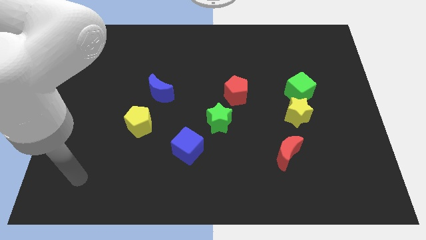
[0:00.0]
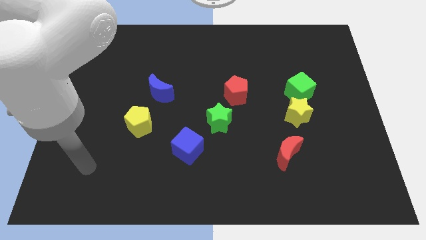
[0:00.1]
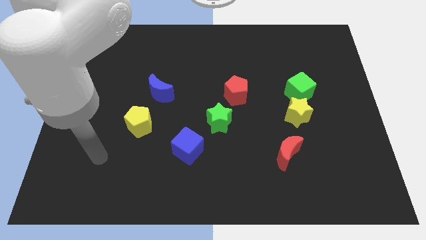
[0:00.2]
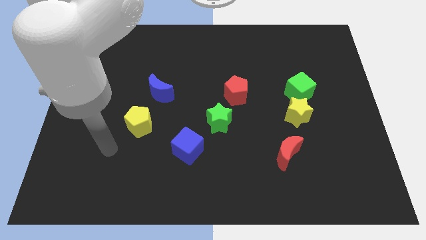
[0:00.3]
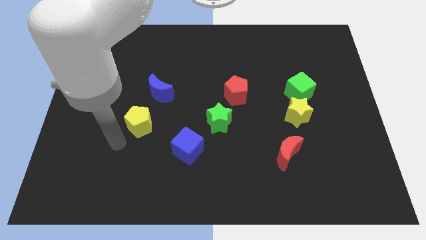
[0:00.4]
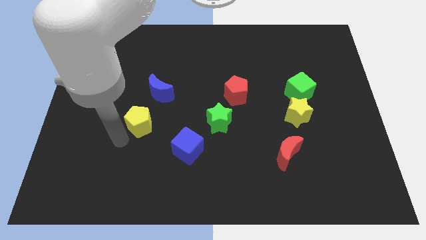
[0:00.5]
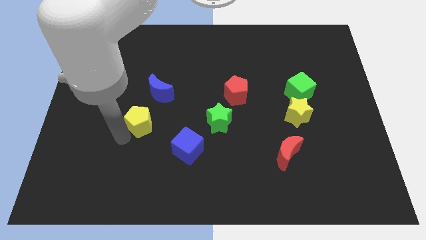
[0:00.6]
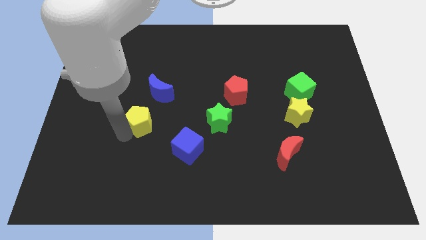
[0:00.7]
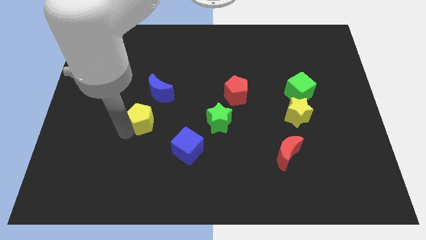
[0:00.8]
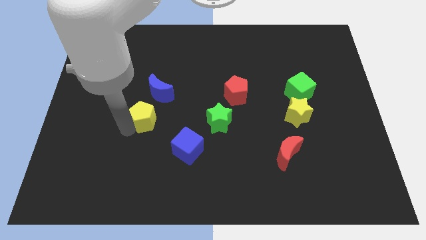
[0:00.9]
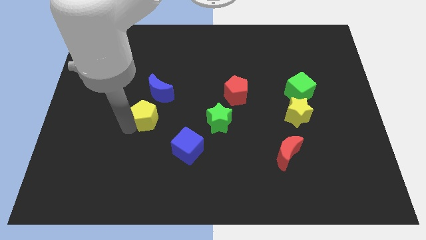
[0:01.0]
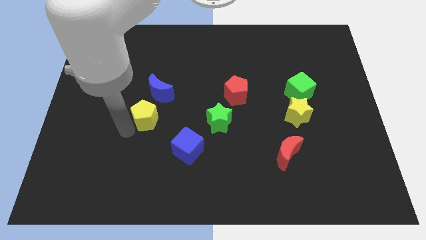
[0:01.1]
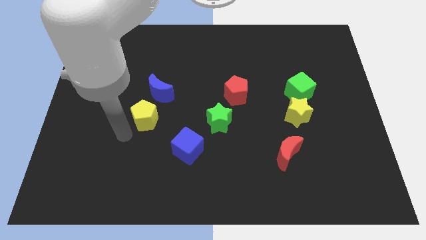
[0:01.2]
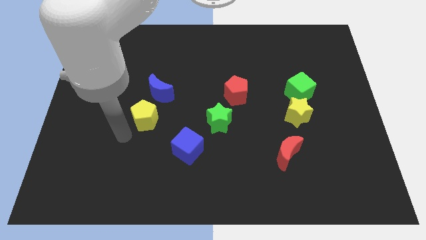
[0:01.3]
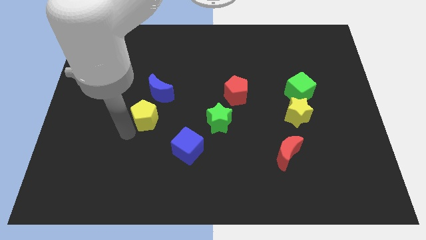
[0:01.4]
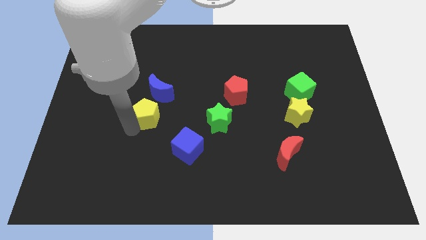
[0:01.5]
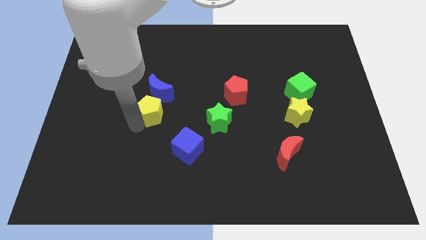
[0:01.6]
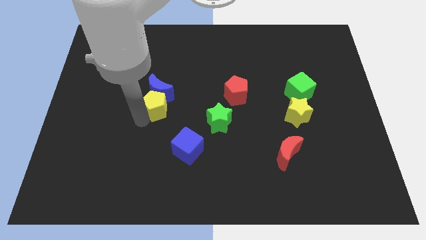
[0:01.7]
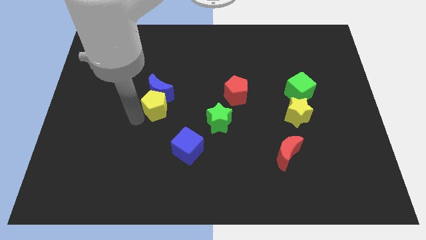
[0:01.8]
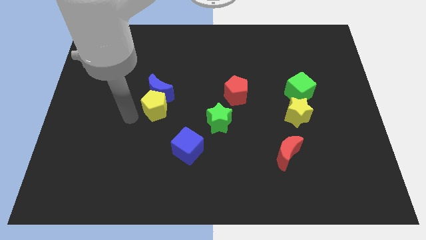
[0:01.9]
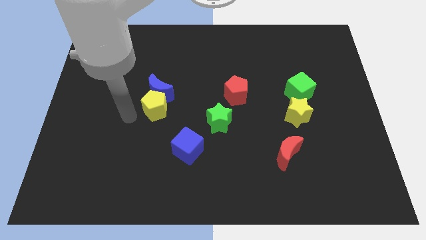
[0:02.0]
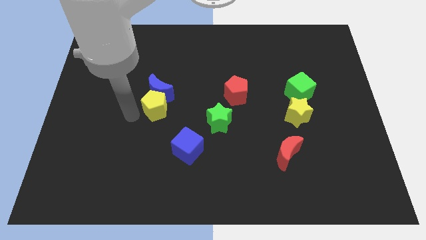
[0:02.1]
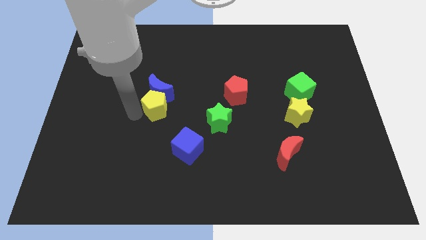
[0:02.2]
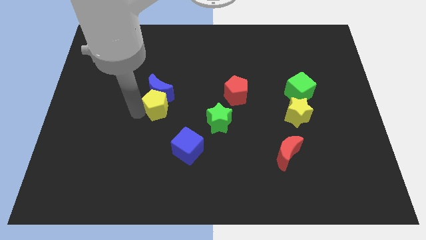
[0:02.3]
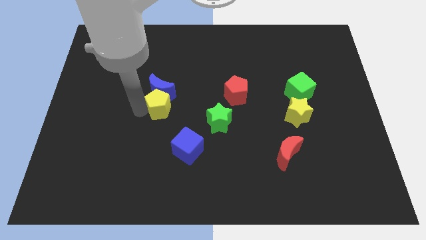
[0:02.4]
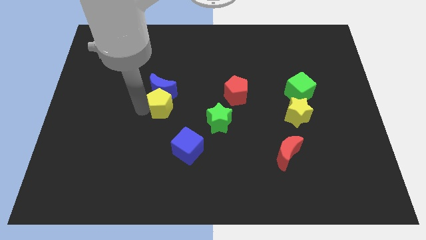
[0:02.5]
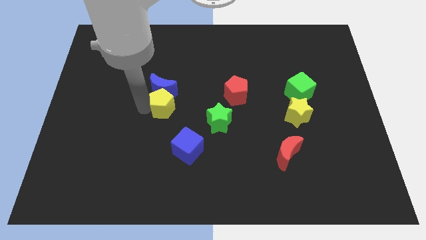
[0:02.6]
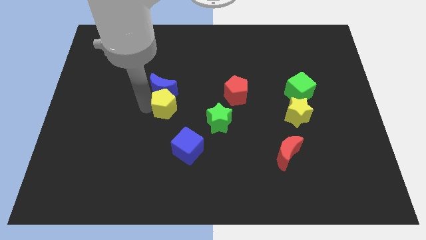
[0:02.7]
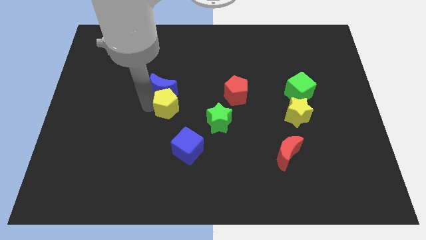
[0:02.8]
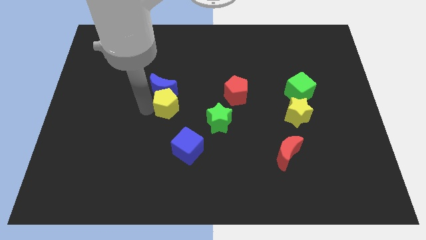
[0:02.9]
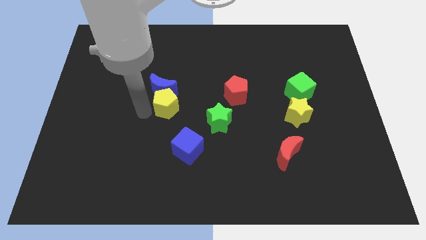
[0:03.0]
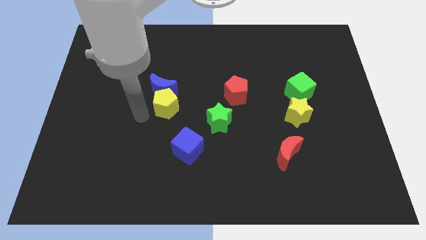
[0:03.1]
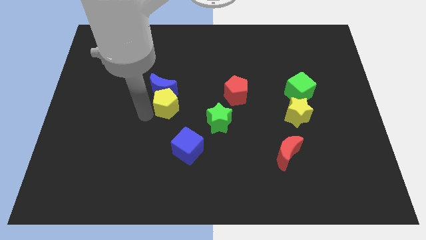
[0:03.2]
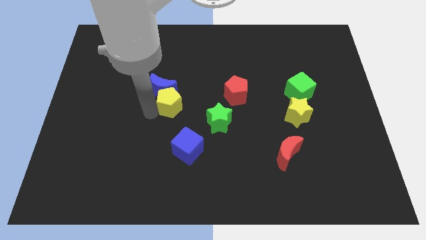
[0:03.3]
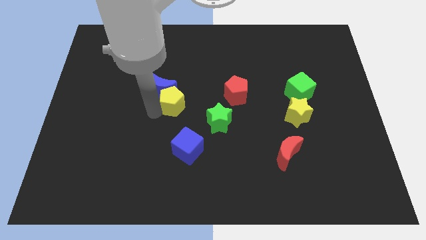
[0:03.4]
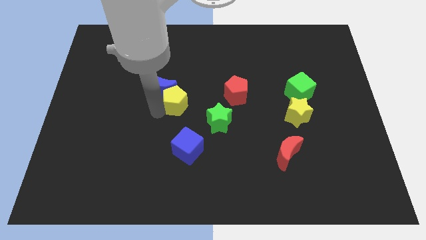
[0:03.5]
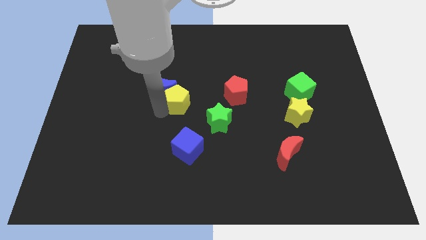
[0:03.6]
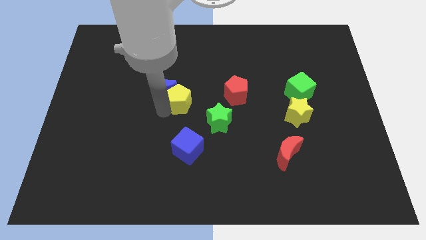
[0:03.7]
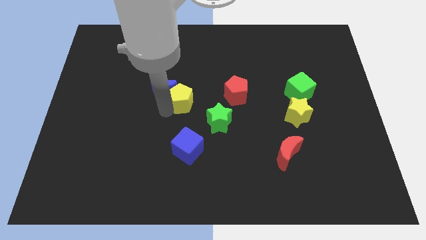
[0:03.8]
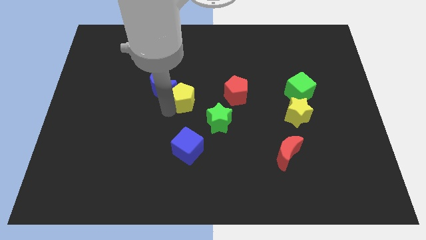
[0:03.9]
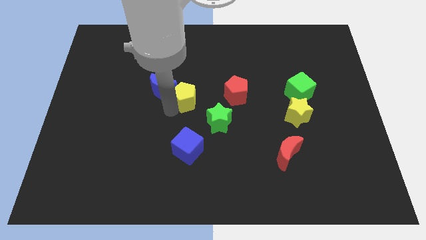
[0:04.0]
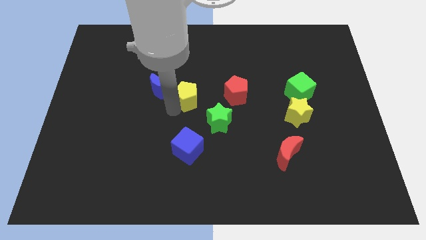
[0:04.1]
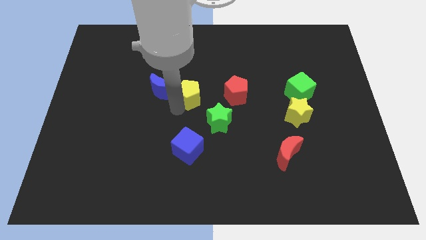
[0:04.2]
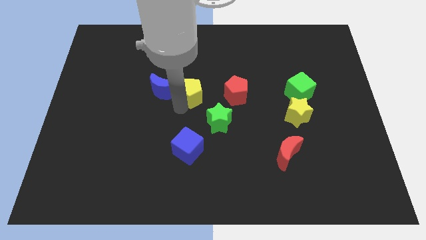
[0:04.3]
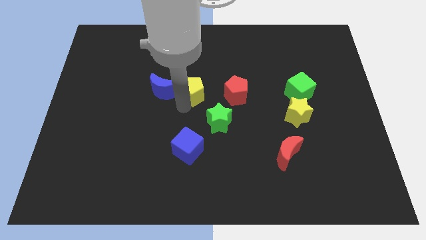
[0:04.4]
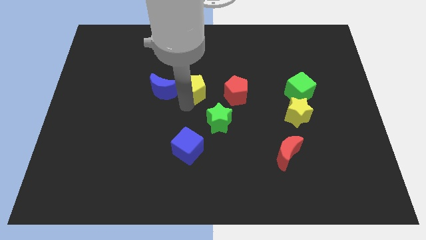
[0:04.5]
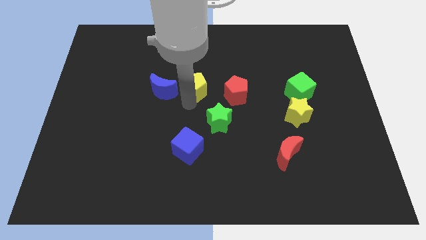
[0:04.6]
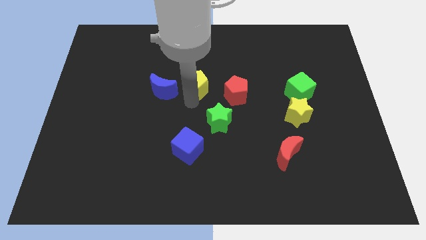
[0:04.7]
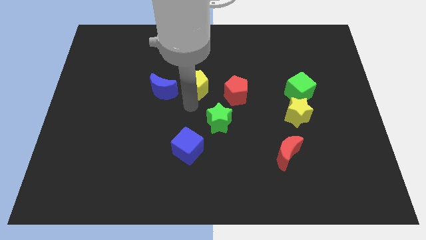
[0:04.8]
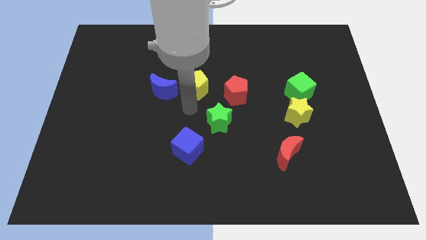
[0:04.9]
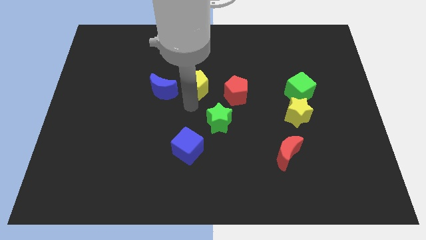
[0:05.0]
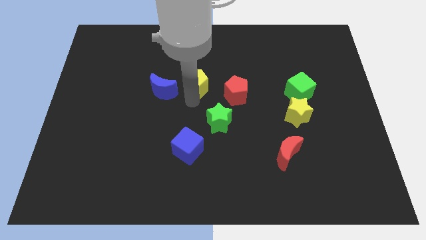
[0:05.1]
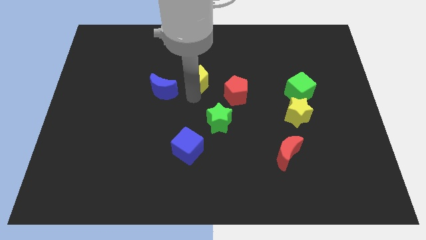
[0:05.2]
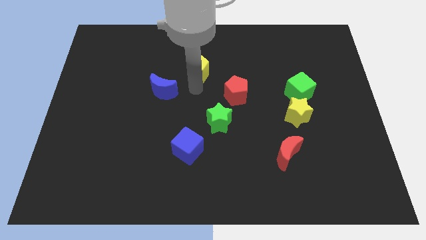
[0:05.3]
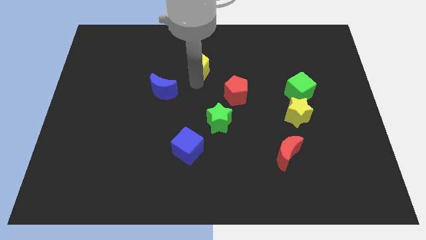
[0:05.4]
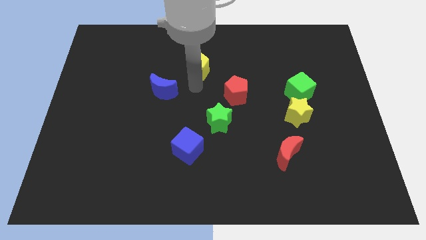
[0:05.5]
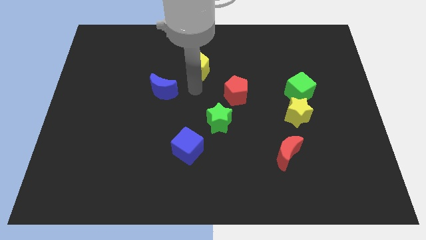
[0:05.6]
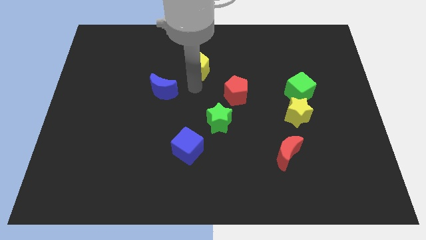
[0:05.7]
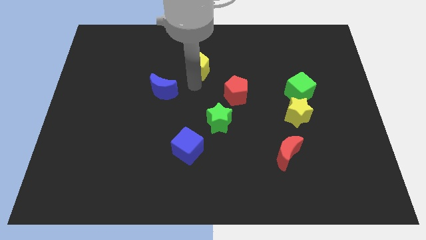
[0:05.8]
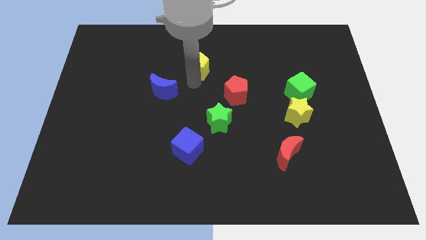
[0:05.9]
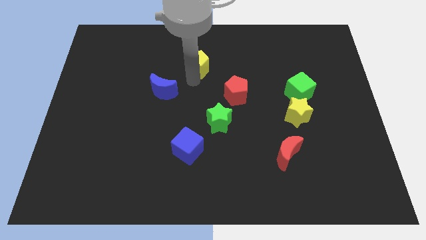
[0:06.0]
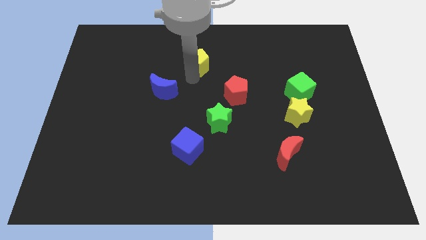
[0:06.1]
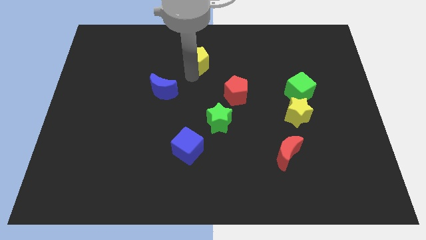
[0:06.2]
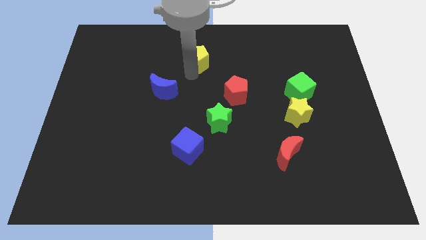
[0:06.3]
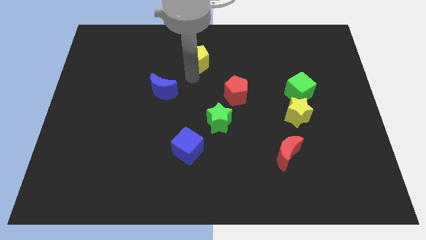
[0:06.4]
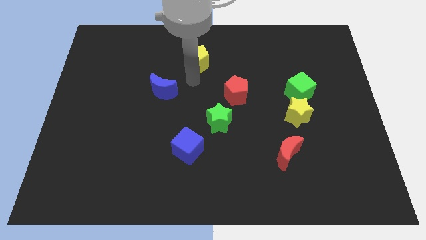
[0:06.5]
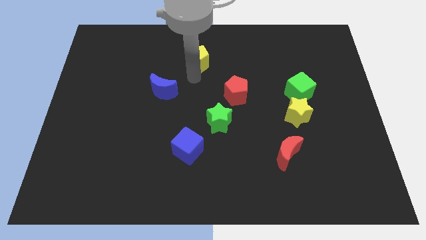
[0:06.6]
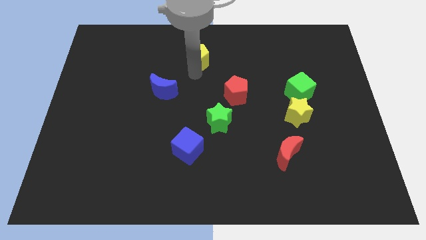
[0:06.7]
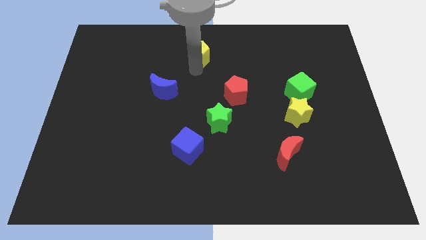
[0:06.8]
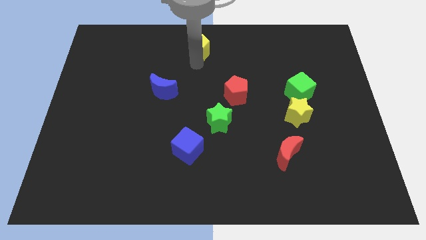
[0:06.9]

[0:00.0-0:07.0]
push the yellow pentagon to the top

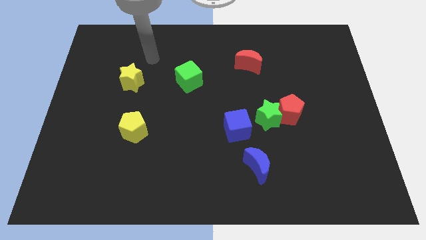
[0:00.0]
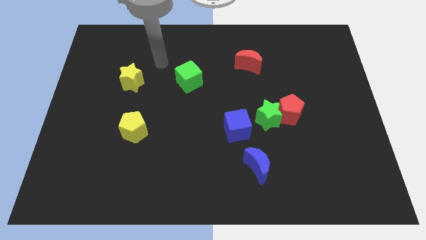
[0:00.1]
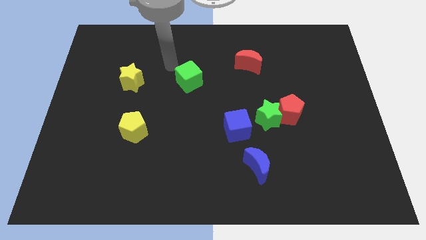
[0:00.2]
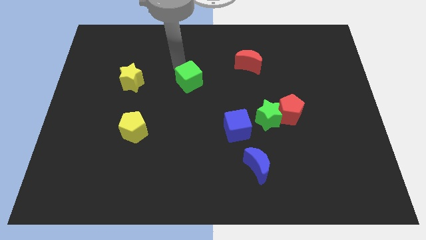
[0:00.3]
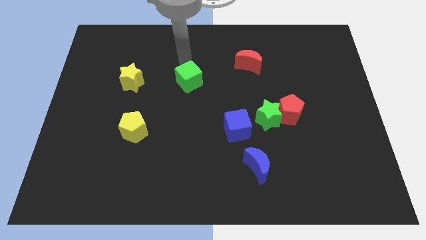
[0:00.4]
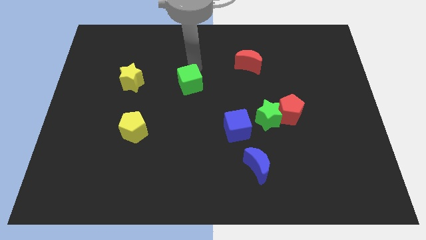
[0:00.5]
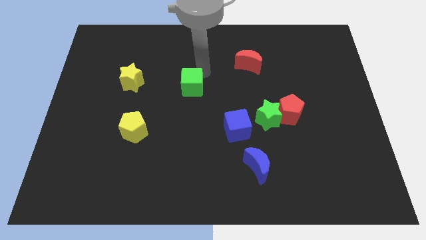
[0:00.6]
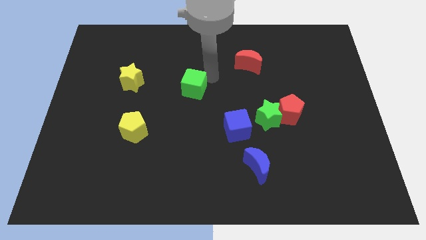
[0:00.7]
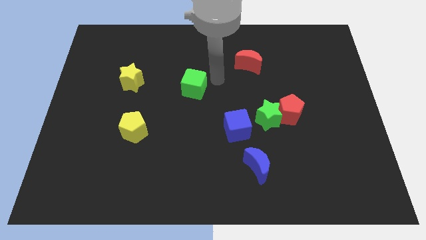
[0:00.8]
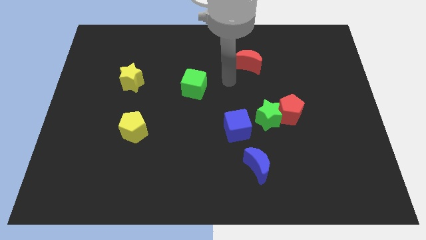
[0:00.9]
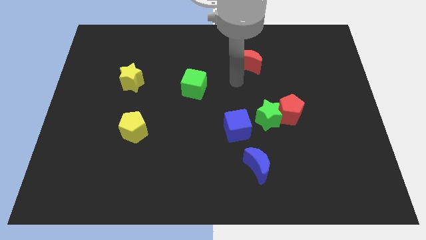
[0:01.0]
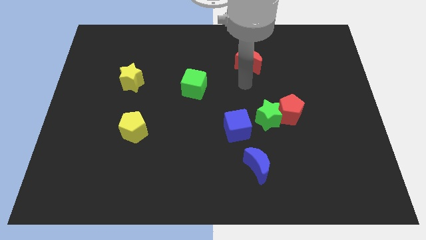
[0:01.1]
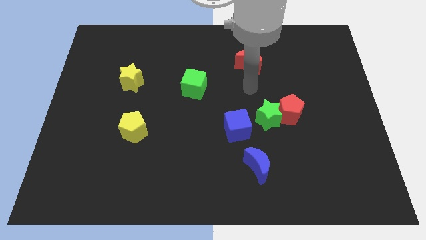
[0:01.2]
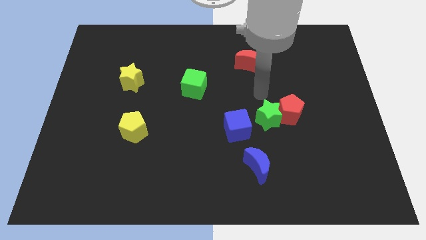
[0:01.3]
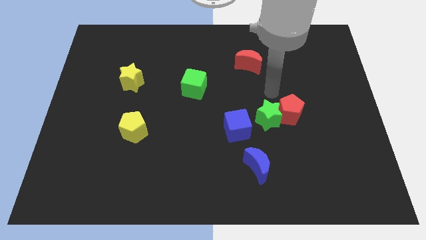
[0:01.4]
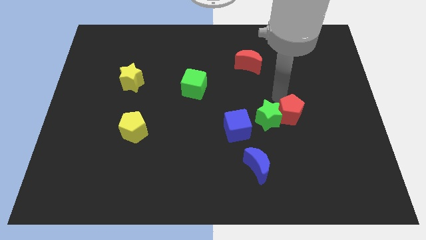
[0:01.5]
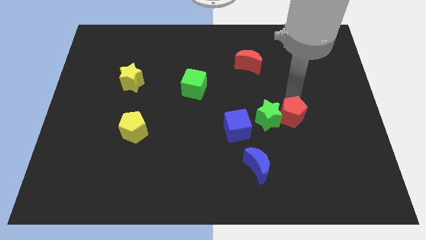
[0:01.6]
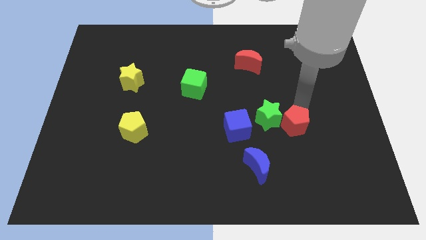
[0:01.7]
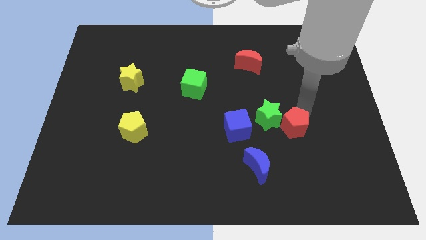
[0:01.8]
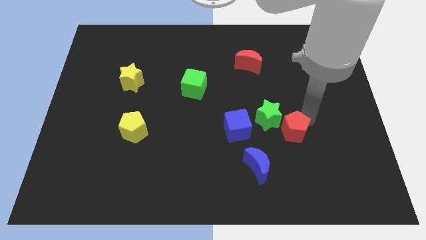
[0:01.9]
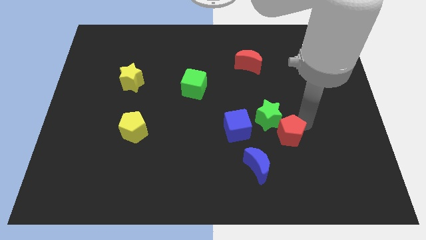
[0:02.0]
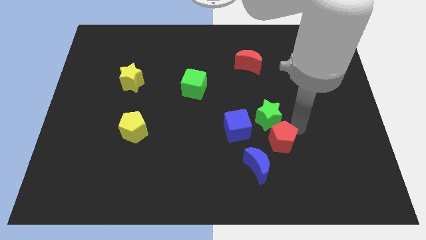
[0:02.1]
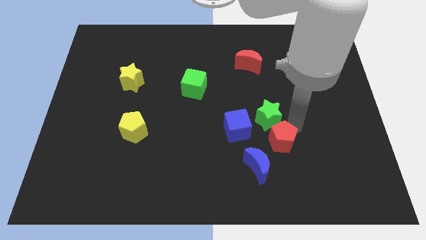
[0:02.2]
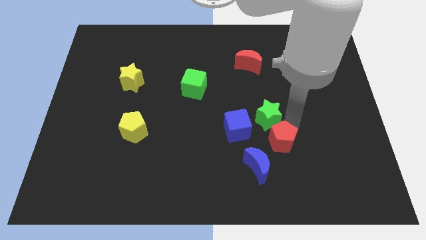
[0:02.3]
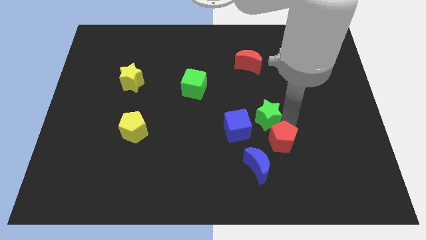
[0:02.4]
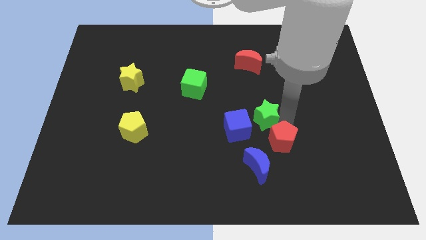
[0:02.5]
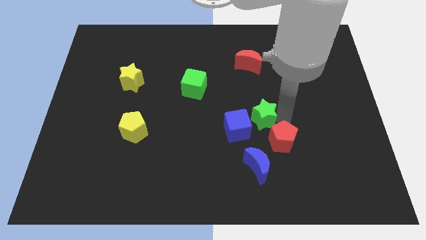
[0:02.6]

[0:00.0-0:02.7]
slide the green star to the center
